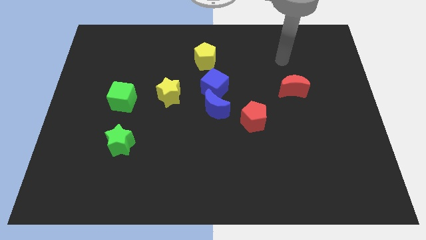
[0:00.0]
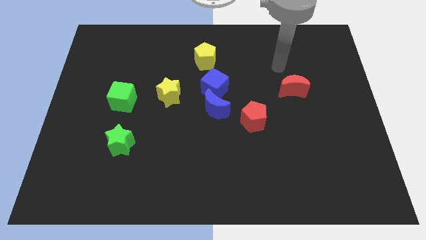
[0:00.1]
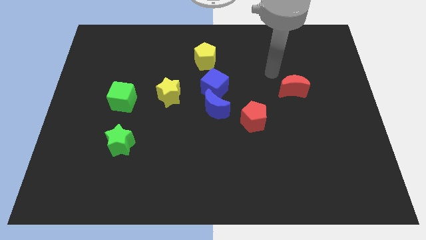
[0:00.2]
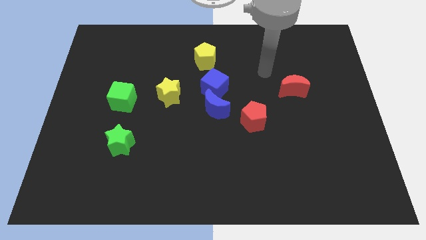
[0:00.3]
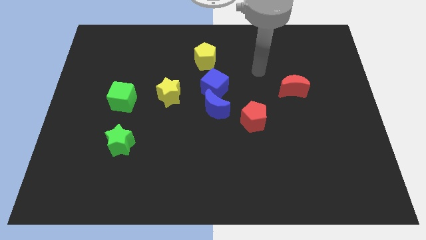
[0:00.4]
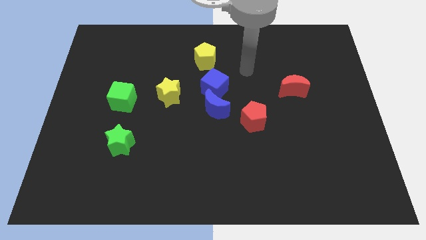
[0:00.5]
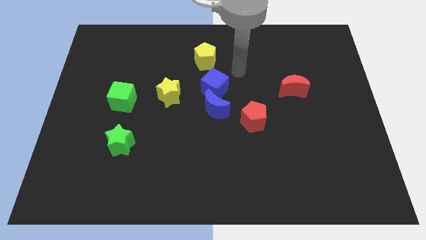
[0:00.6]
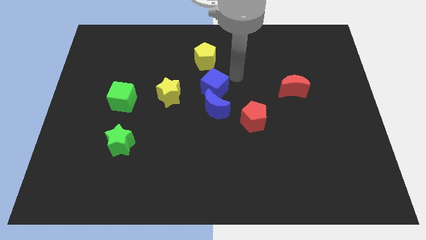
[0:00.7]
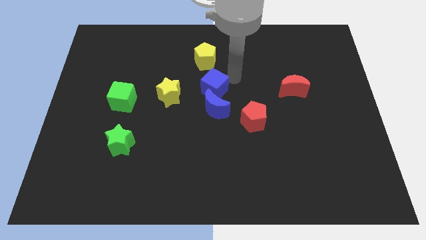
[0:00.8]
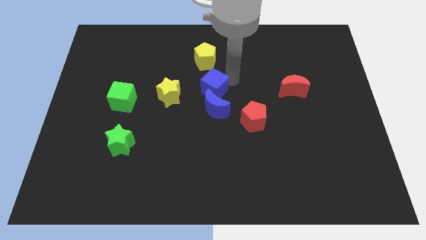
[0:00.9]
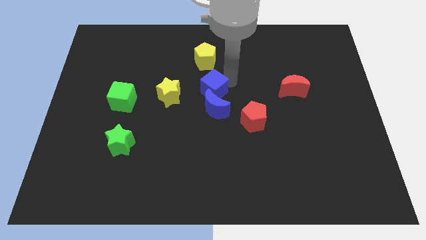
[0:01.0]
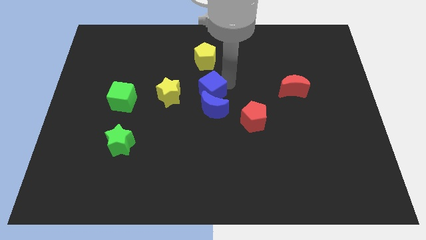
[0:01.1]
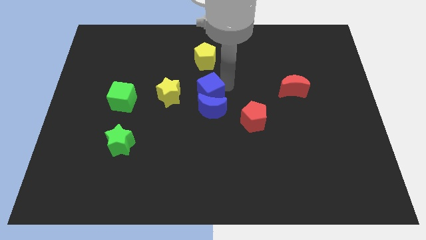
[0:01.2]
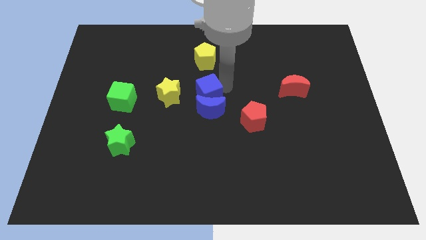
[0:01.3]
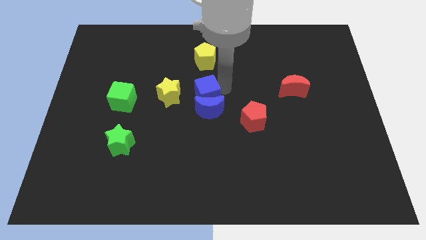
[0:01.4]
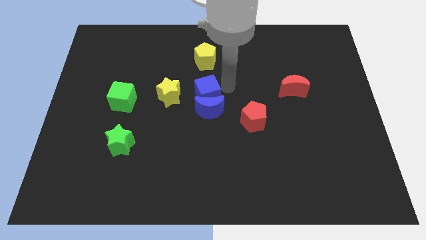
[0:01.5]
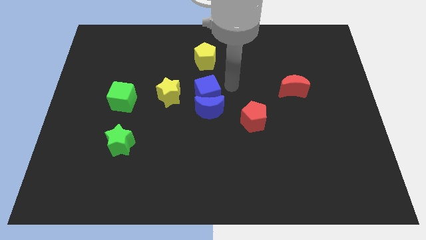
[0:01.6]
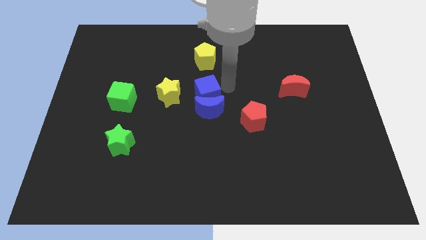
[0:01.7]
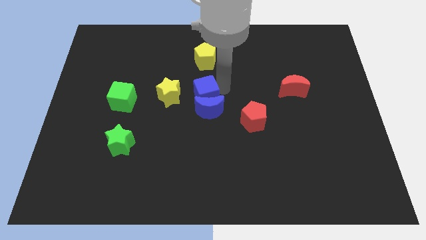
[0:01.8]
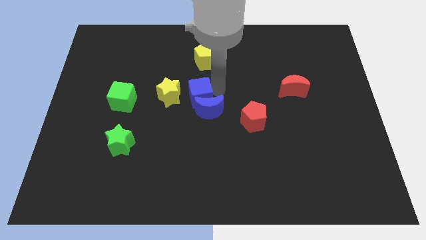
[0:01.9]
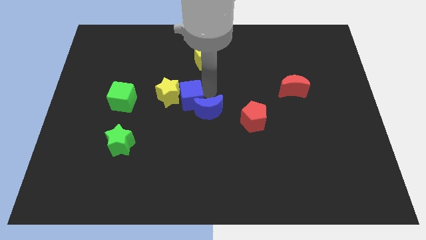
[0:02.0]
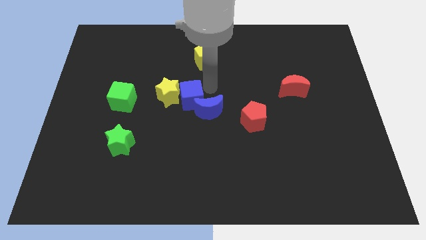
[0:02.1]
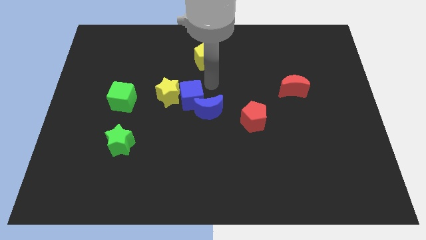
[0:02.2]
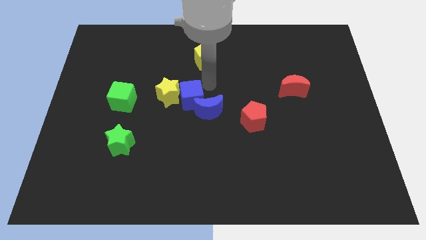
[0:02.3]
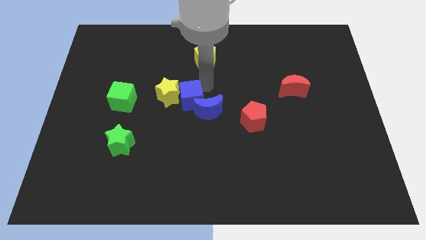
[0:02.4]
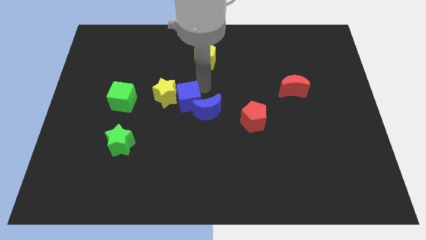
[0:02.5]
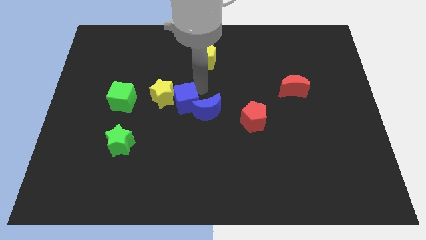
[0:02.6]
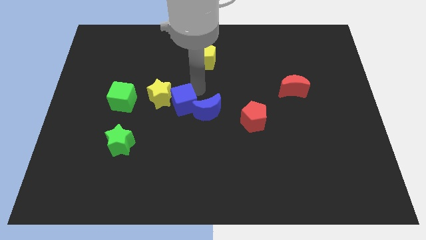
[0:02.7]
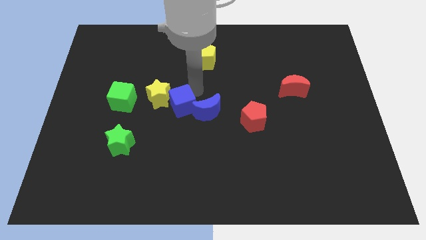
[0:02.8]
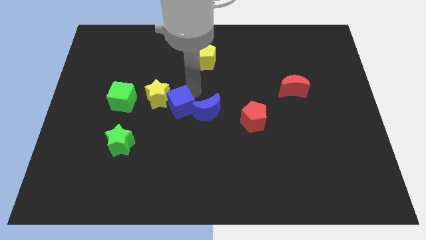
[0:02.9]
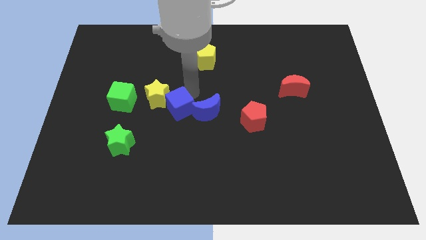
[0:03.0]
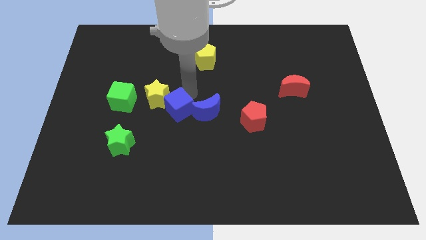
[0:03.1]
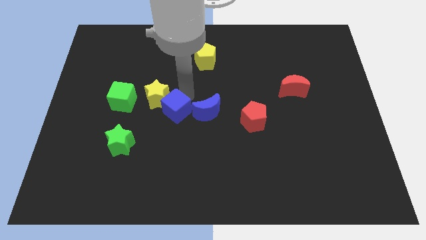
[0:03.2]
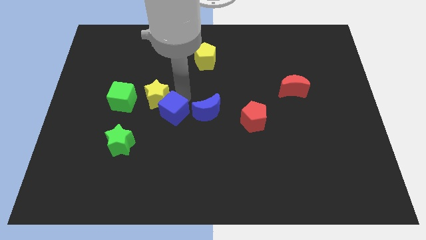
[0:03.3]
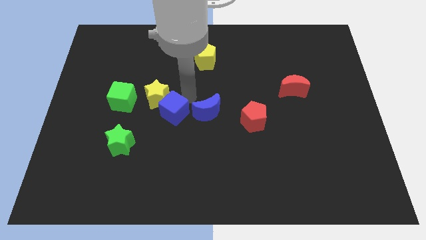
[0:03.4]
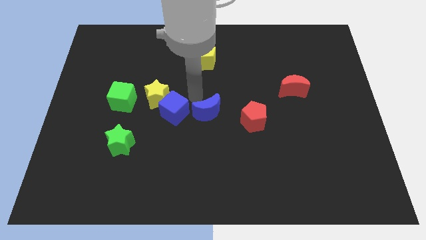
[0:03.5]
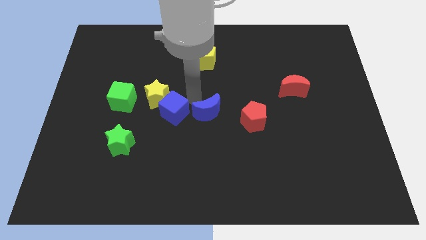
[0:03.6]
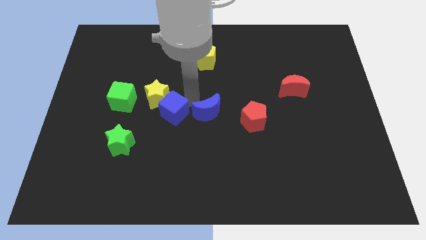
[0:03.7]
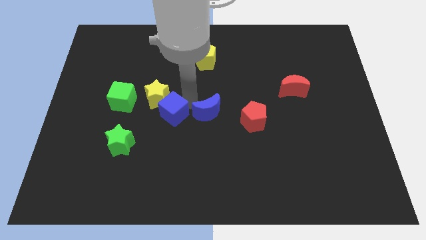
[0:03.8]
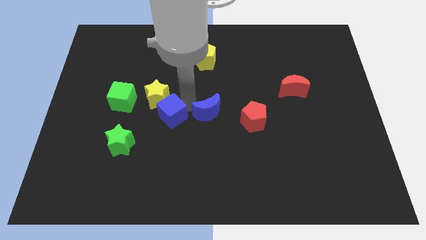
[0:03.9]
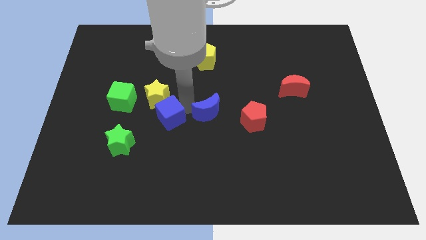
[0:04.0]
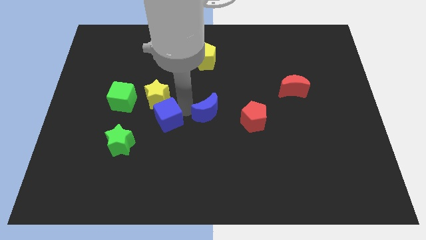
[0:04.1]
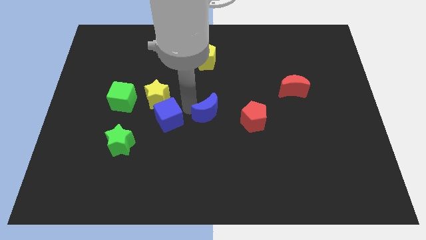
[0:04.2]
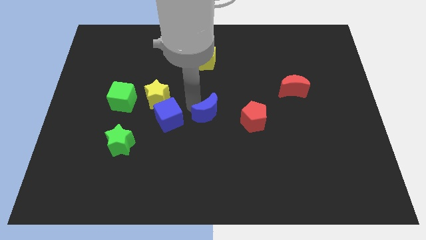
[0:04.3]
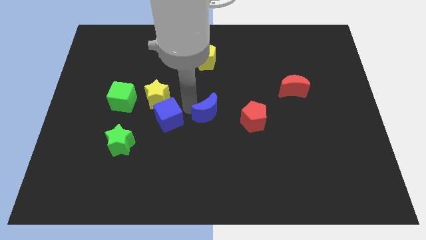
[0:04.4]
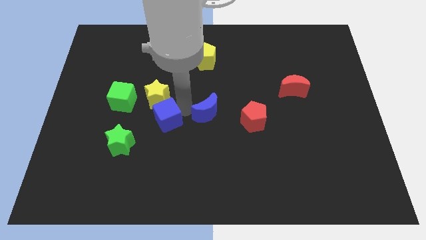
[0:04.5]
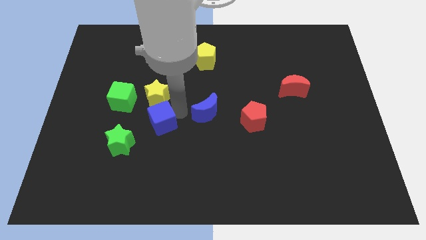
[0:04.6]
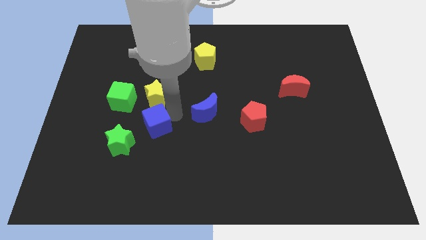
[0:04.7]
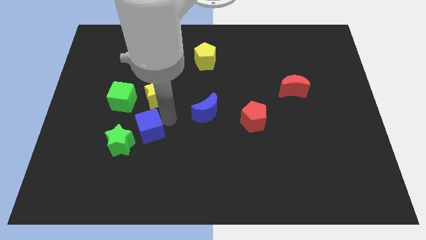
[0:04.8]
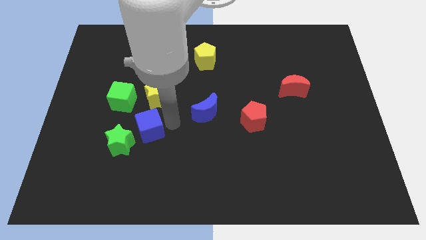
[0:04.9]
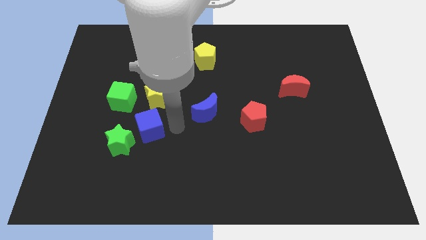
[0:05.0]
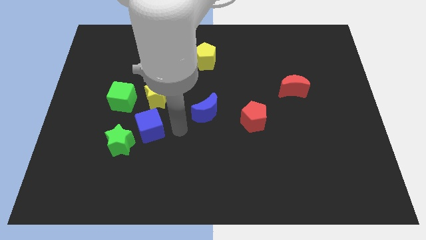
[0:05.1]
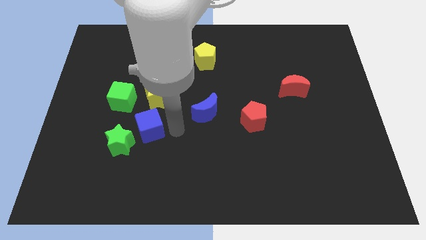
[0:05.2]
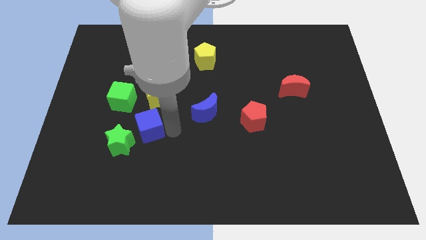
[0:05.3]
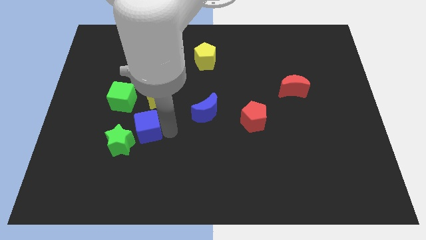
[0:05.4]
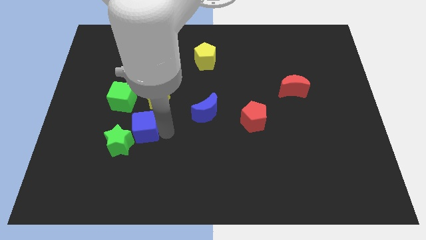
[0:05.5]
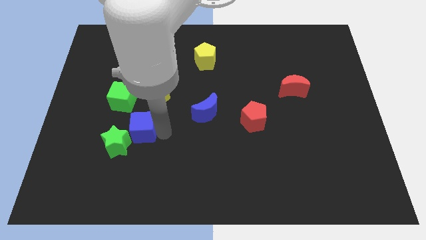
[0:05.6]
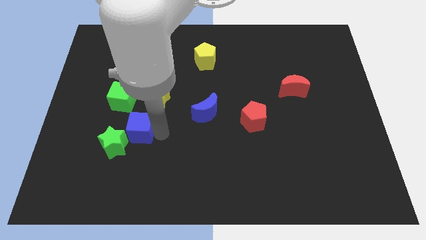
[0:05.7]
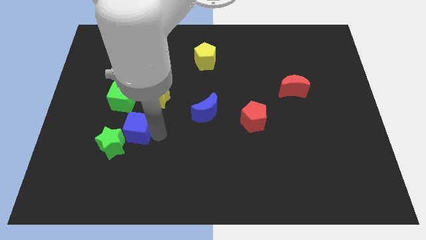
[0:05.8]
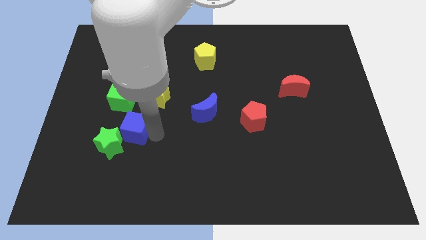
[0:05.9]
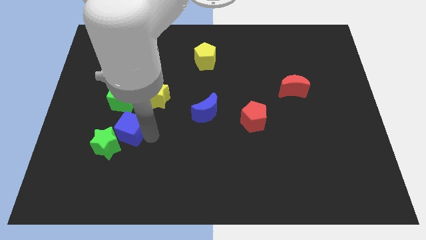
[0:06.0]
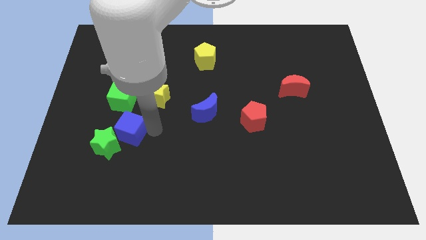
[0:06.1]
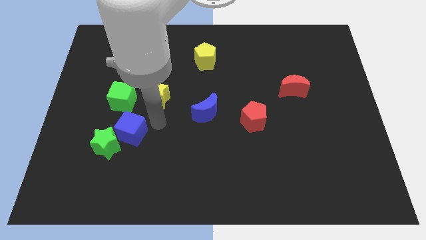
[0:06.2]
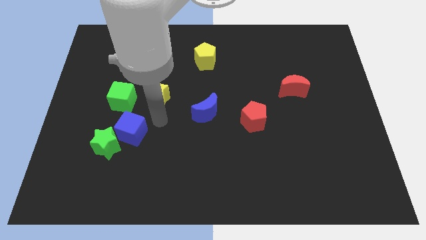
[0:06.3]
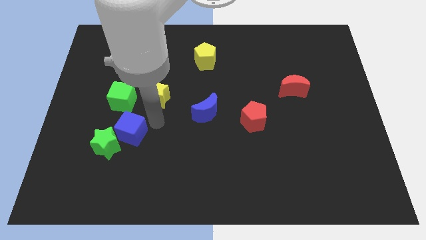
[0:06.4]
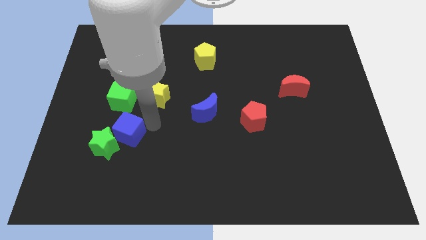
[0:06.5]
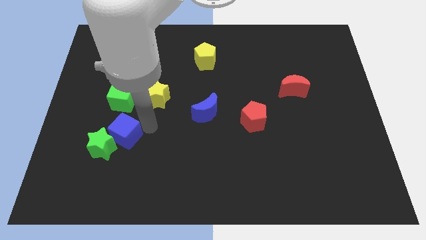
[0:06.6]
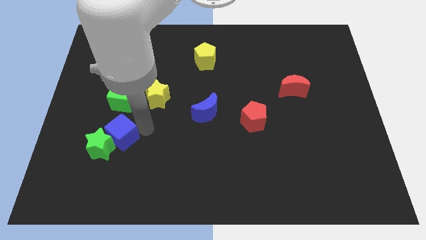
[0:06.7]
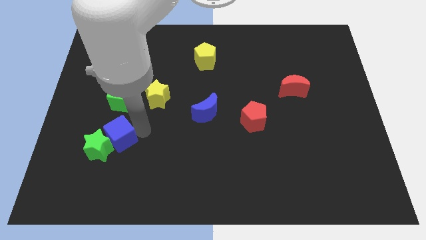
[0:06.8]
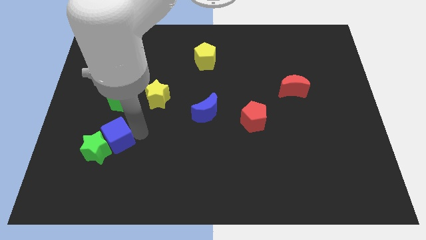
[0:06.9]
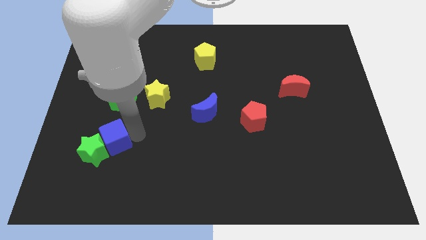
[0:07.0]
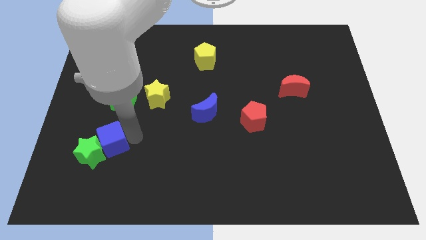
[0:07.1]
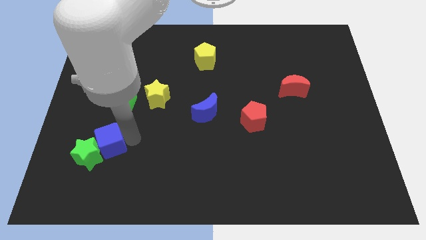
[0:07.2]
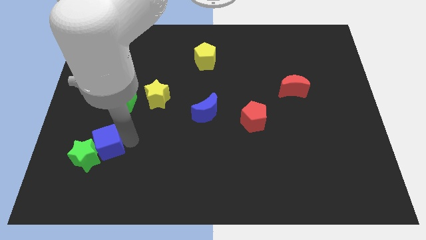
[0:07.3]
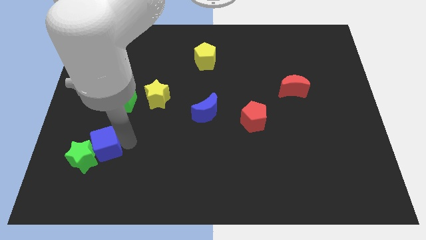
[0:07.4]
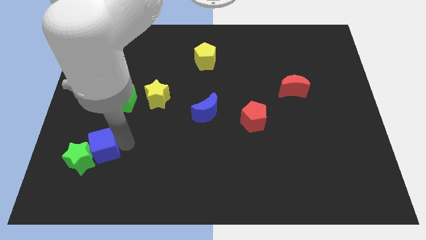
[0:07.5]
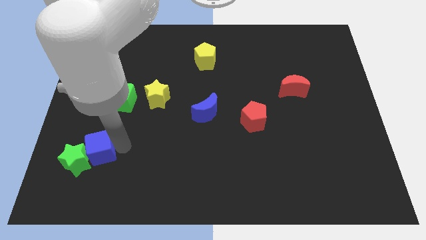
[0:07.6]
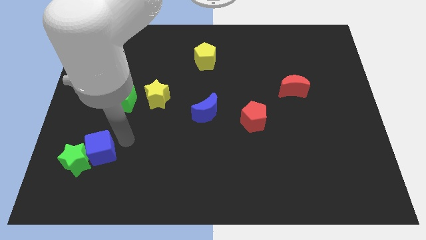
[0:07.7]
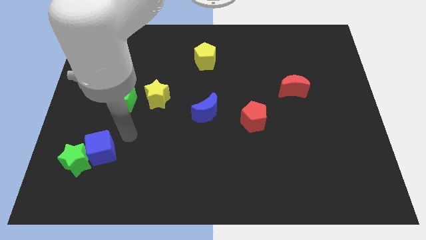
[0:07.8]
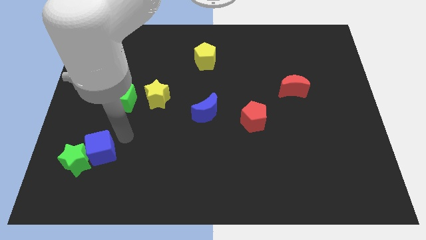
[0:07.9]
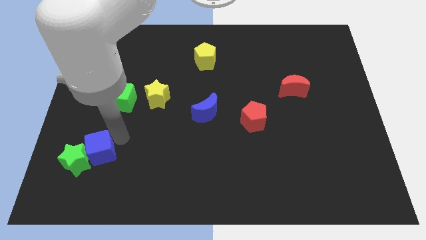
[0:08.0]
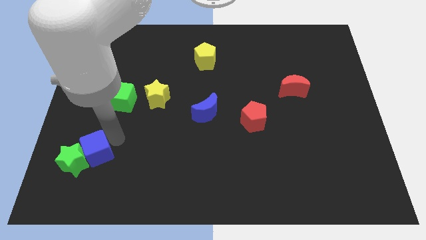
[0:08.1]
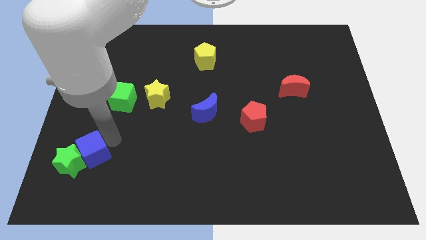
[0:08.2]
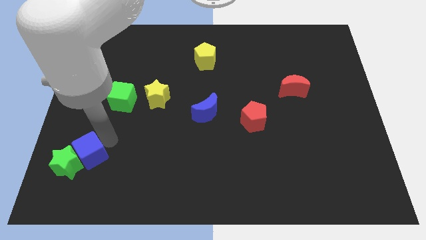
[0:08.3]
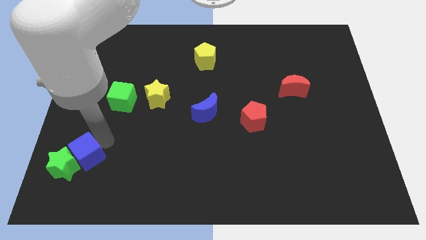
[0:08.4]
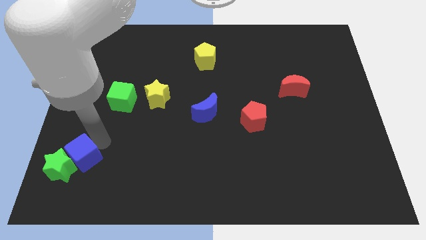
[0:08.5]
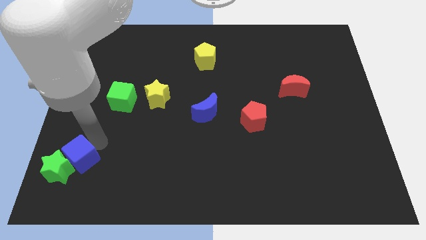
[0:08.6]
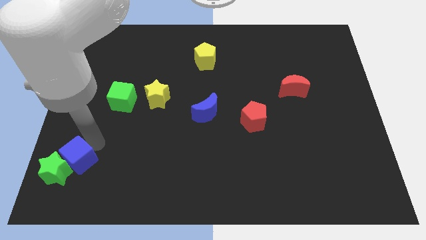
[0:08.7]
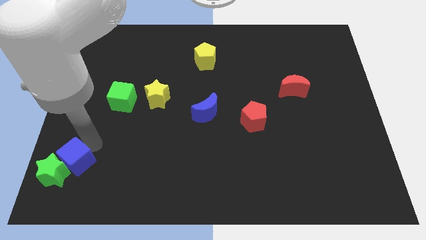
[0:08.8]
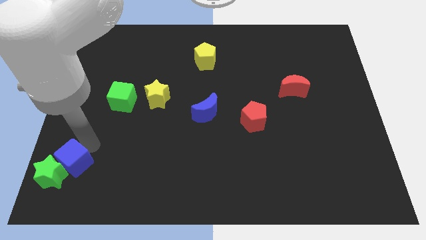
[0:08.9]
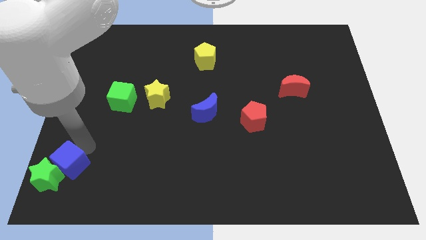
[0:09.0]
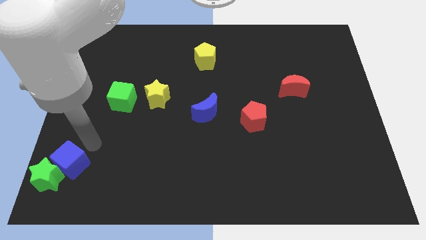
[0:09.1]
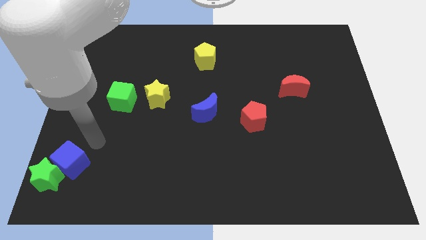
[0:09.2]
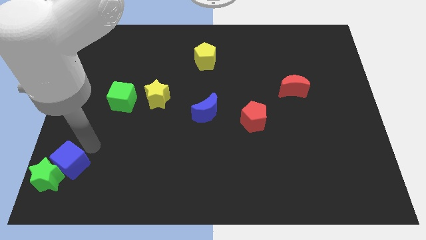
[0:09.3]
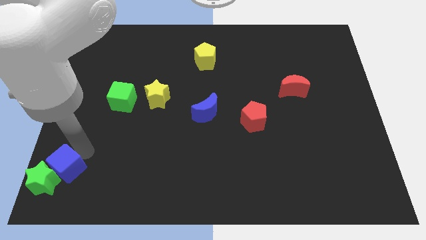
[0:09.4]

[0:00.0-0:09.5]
move the blue cube to the bottom left
